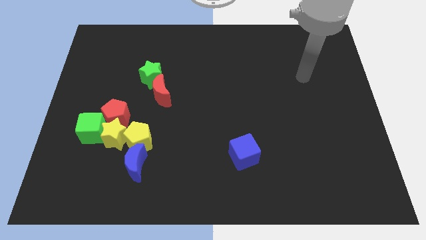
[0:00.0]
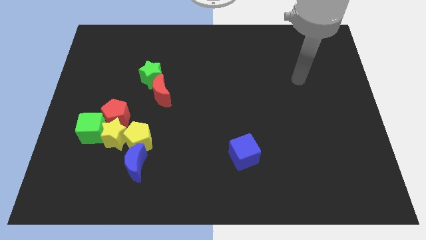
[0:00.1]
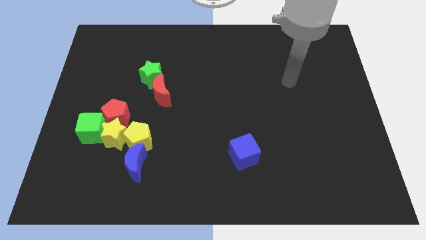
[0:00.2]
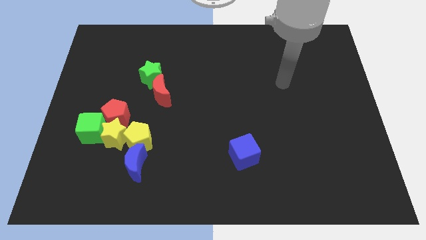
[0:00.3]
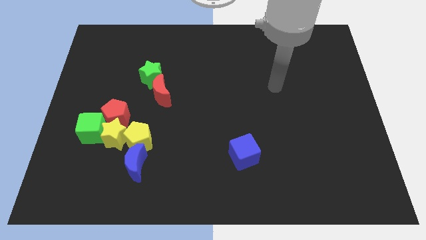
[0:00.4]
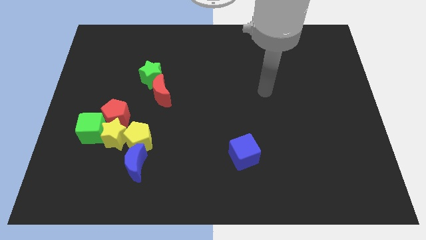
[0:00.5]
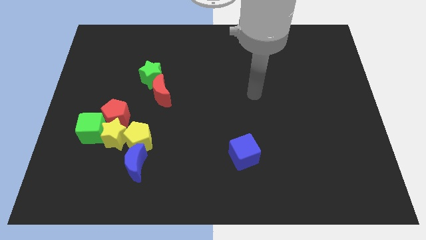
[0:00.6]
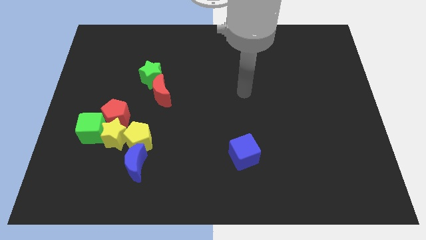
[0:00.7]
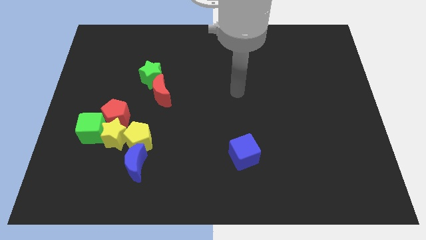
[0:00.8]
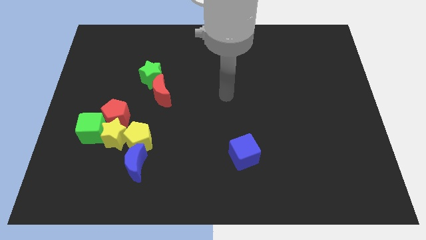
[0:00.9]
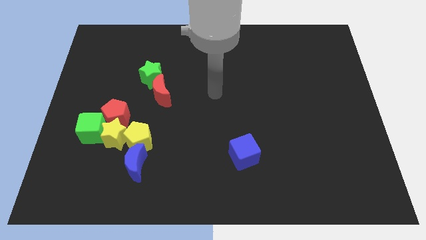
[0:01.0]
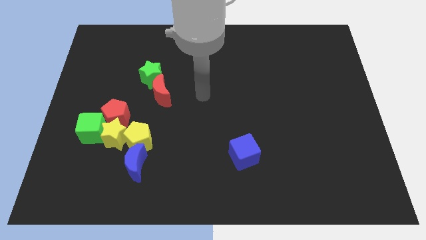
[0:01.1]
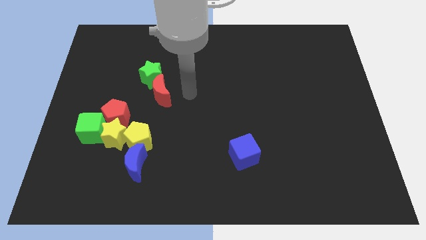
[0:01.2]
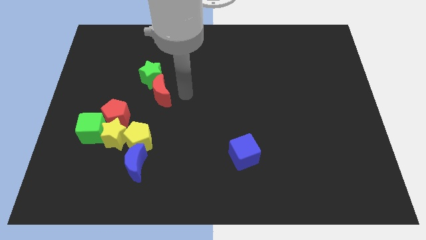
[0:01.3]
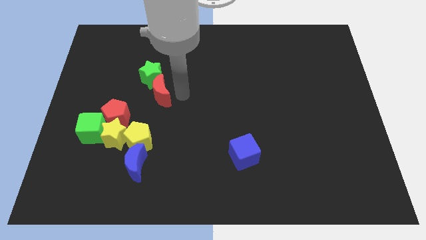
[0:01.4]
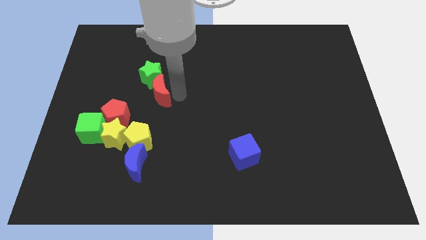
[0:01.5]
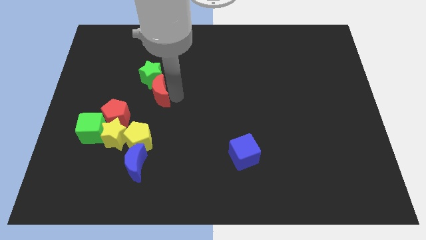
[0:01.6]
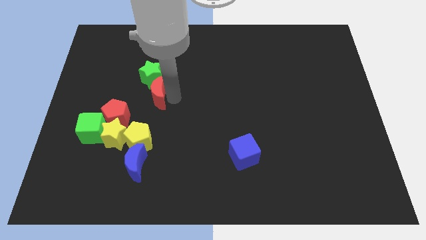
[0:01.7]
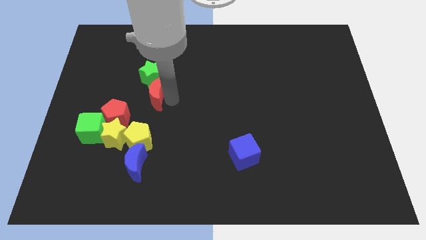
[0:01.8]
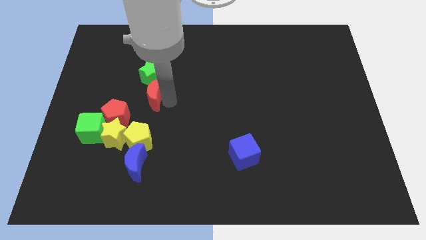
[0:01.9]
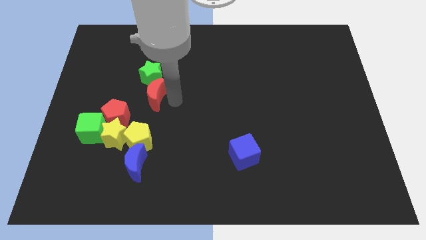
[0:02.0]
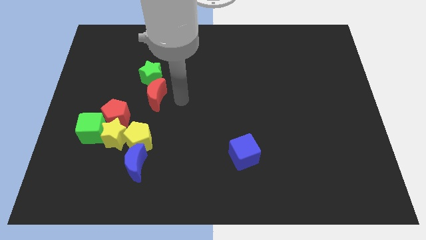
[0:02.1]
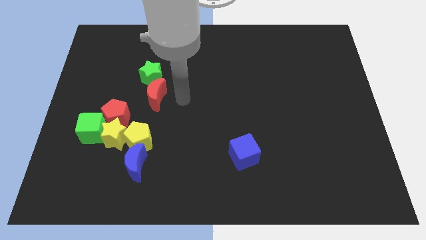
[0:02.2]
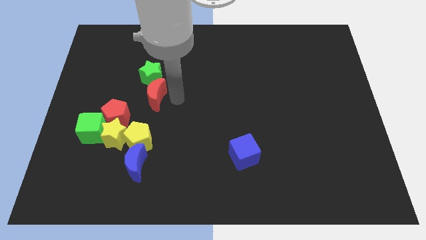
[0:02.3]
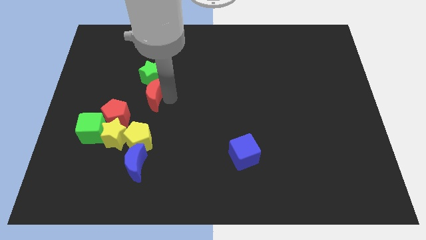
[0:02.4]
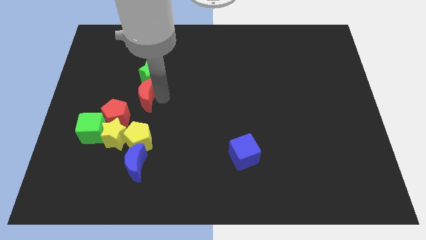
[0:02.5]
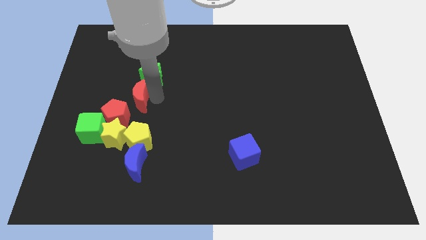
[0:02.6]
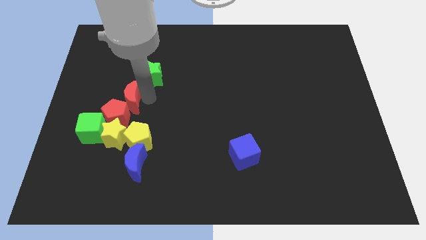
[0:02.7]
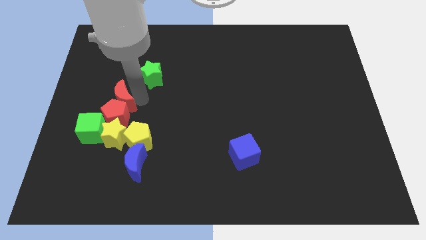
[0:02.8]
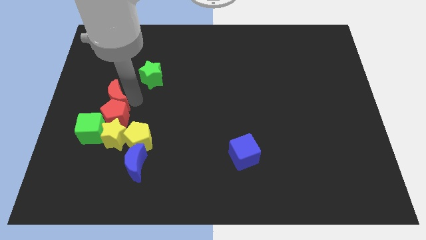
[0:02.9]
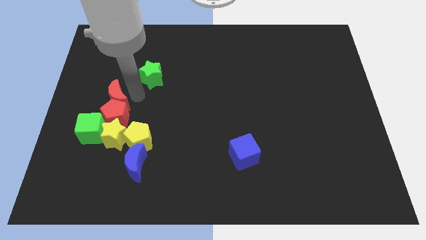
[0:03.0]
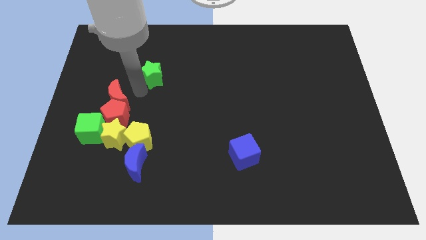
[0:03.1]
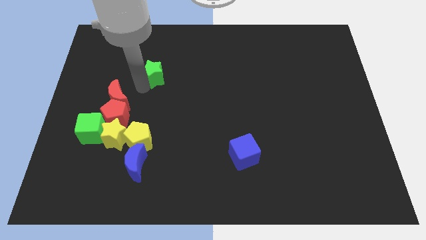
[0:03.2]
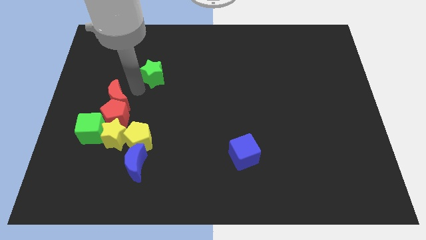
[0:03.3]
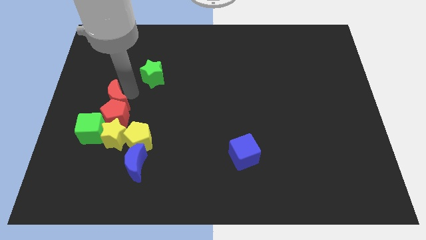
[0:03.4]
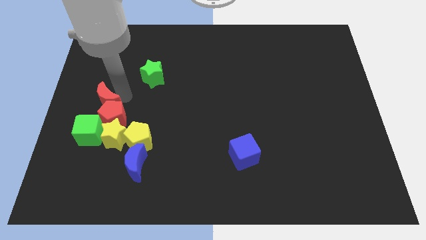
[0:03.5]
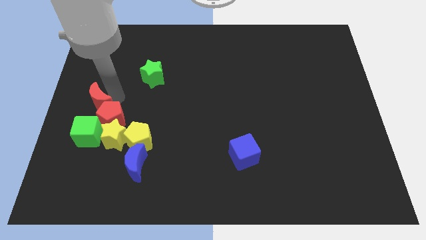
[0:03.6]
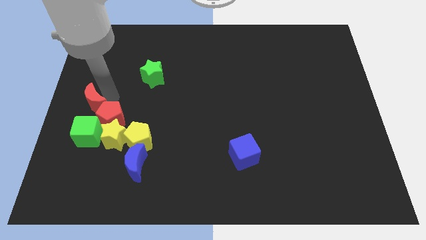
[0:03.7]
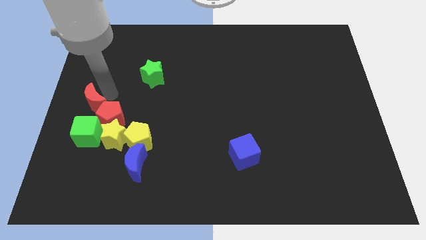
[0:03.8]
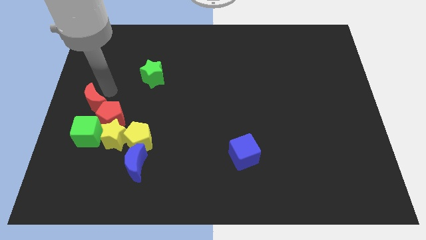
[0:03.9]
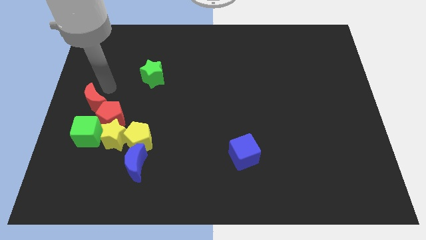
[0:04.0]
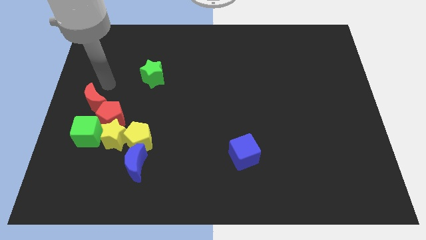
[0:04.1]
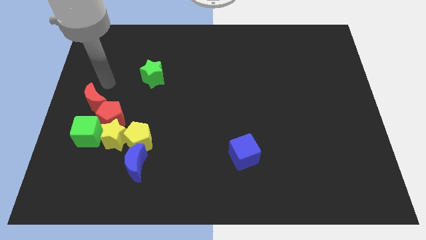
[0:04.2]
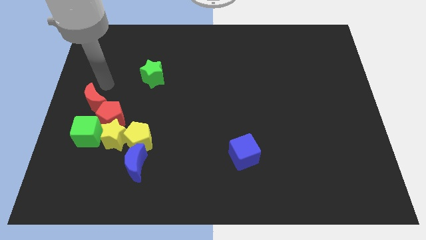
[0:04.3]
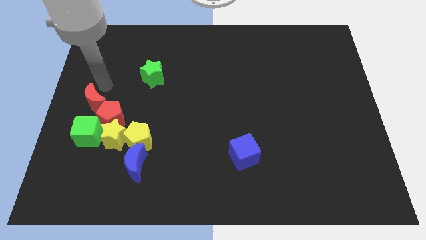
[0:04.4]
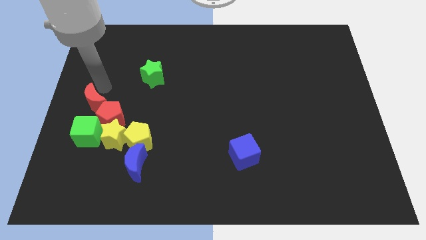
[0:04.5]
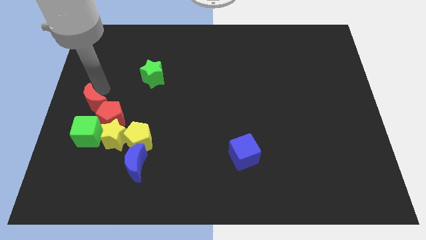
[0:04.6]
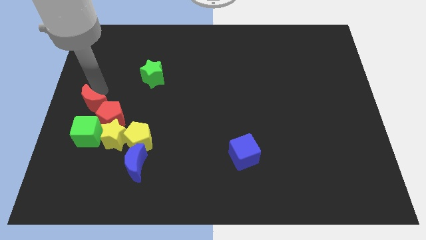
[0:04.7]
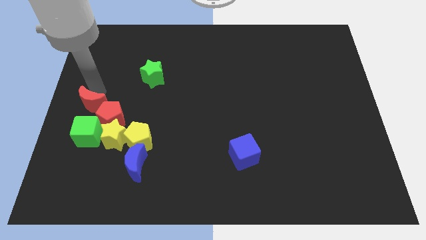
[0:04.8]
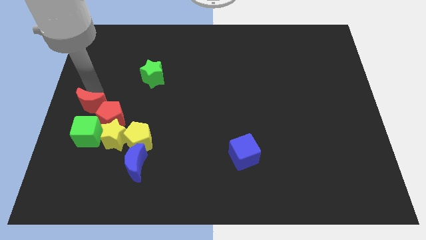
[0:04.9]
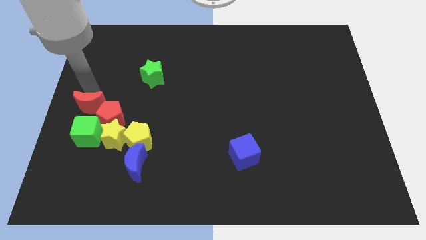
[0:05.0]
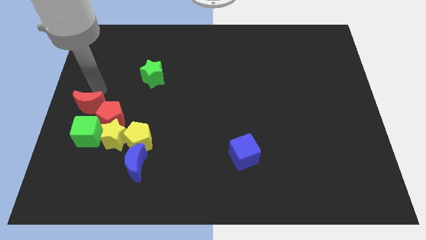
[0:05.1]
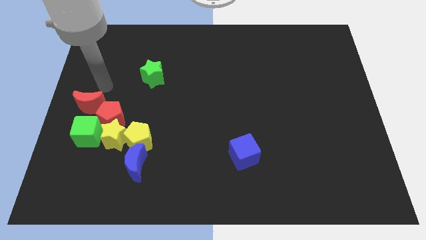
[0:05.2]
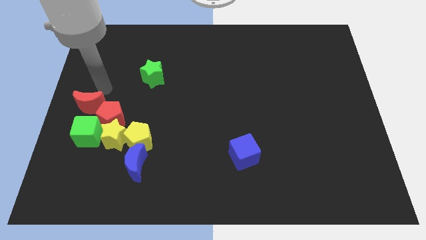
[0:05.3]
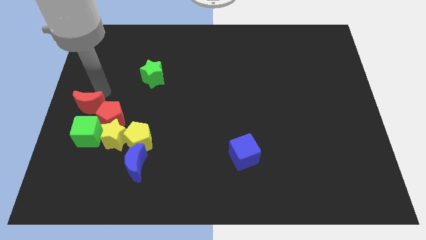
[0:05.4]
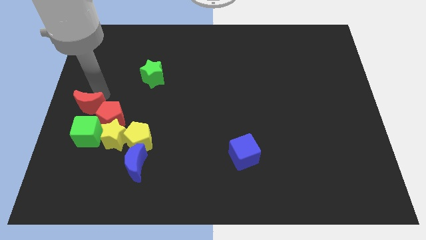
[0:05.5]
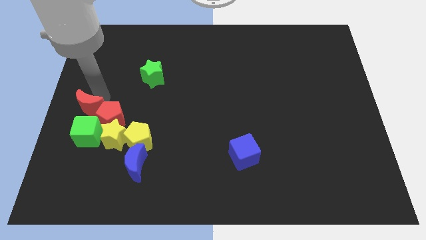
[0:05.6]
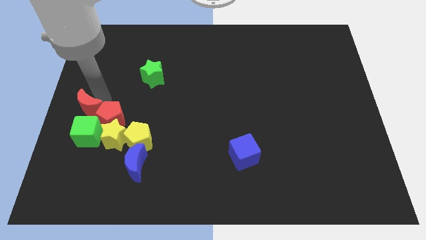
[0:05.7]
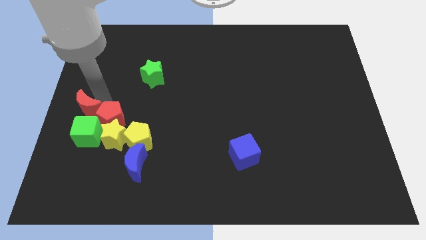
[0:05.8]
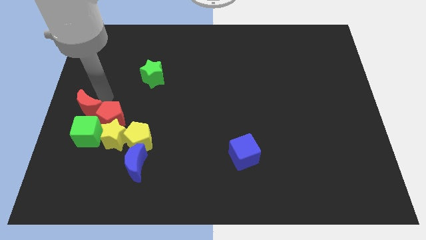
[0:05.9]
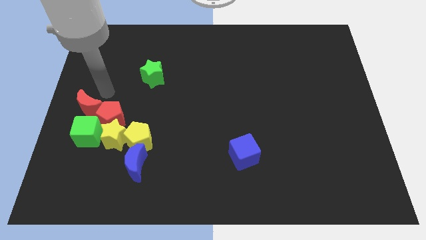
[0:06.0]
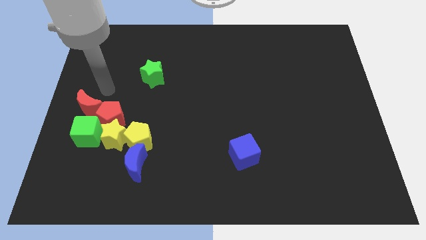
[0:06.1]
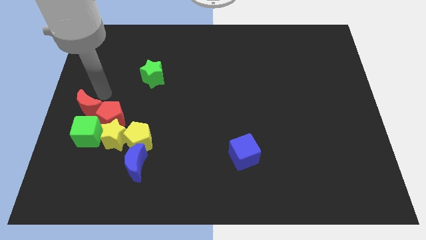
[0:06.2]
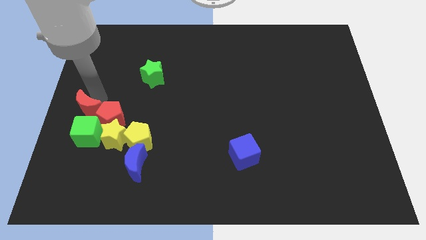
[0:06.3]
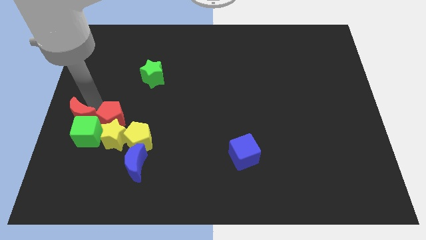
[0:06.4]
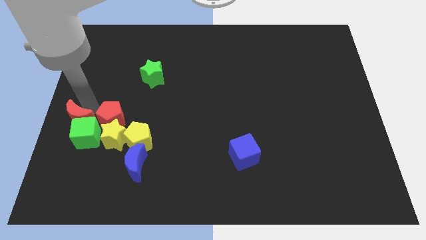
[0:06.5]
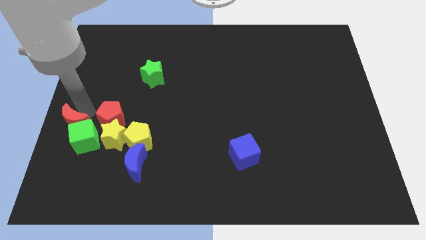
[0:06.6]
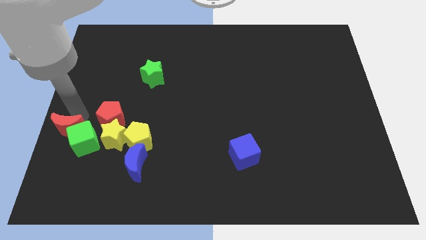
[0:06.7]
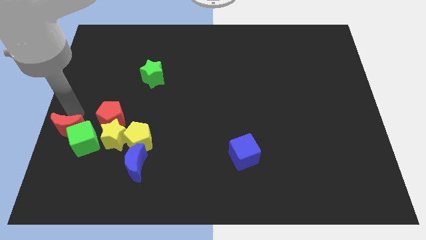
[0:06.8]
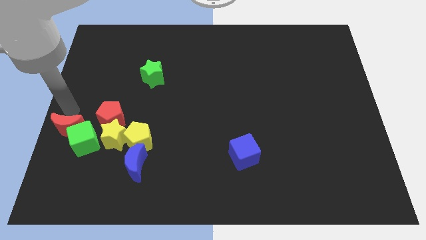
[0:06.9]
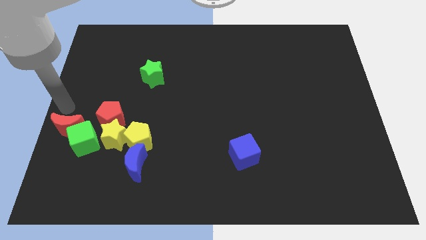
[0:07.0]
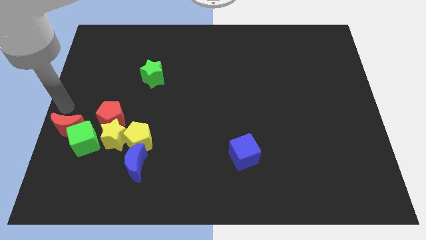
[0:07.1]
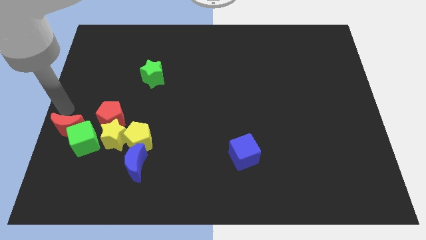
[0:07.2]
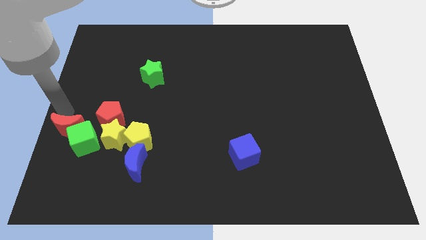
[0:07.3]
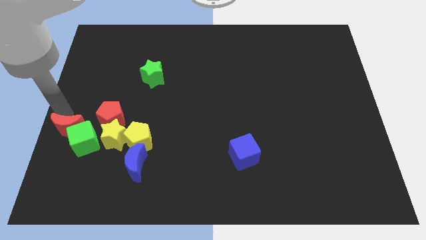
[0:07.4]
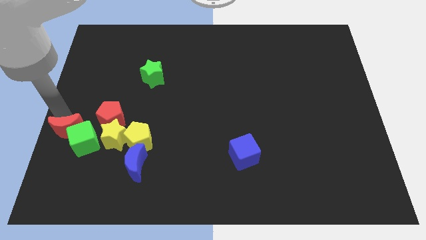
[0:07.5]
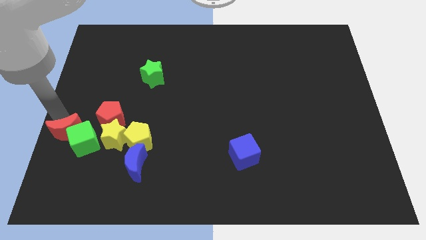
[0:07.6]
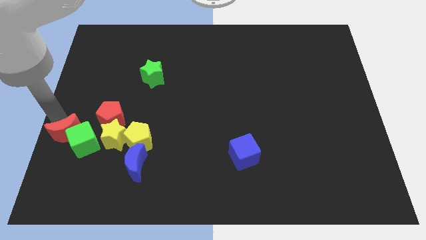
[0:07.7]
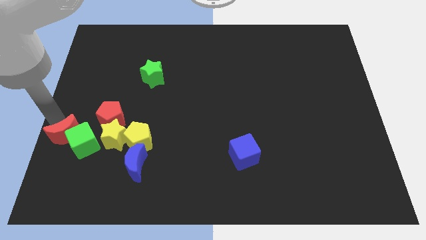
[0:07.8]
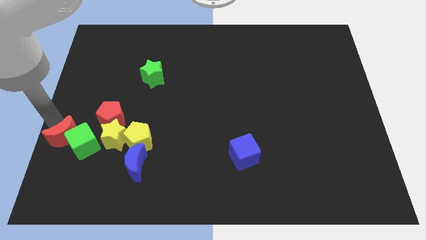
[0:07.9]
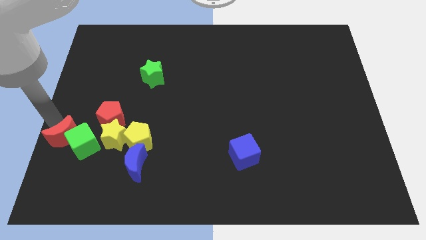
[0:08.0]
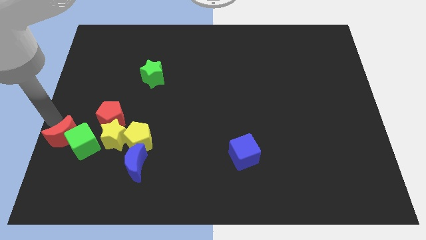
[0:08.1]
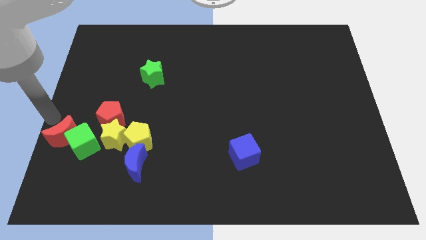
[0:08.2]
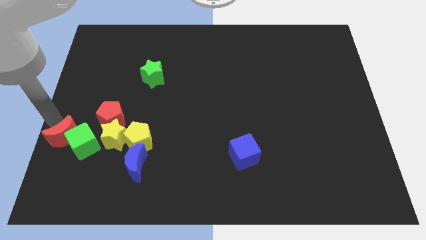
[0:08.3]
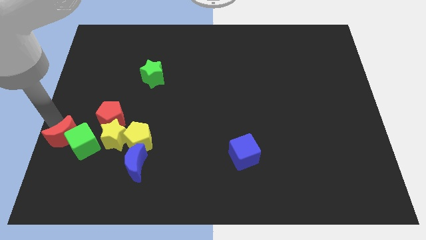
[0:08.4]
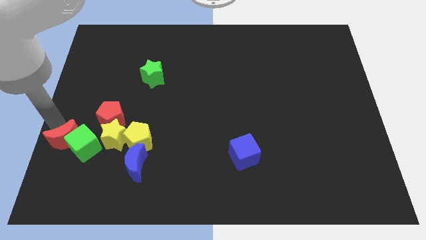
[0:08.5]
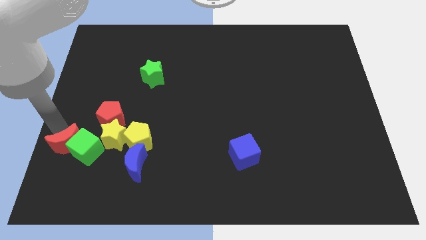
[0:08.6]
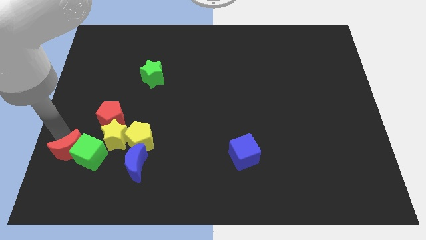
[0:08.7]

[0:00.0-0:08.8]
move the red moon to the left side of the blue moon

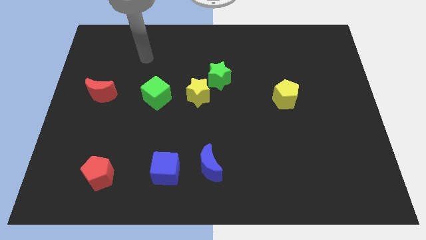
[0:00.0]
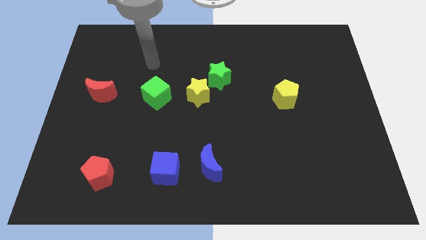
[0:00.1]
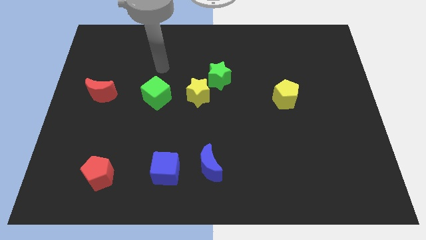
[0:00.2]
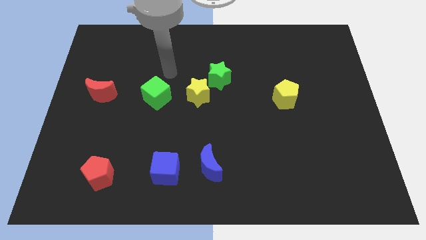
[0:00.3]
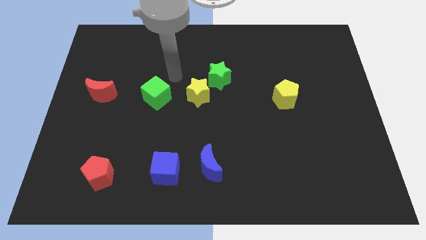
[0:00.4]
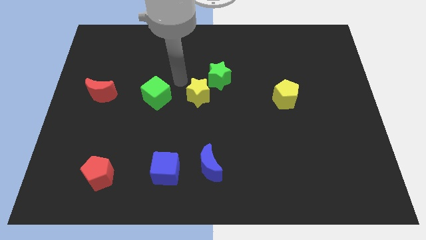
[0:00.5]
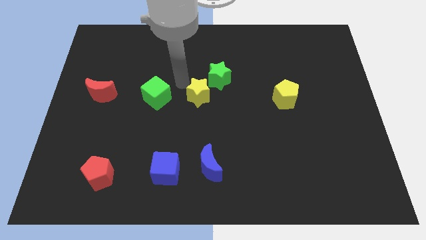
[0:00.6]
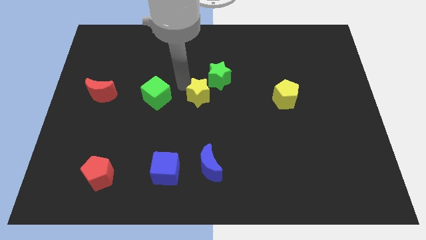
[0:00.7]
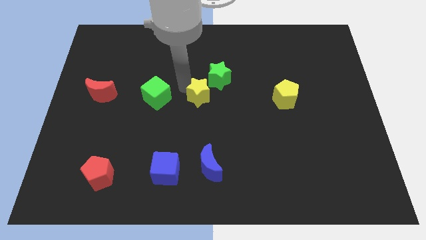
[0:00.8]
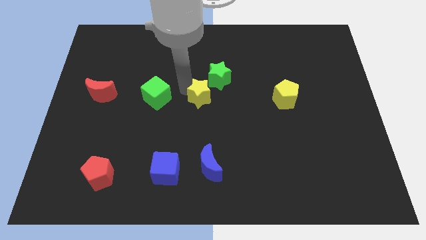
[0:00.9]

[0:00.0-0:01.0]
push the yellow star to the bottom side of the green star
